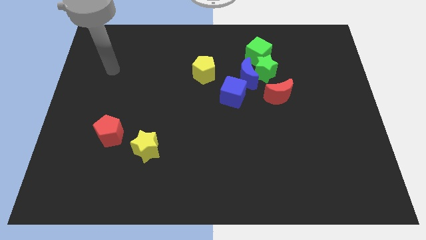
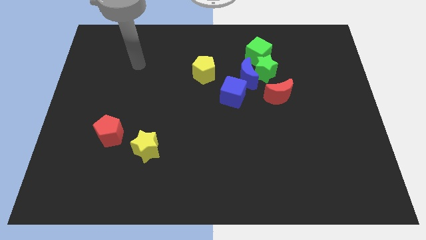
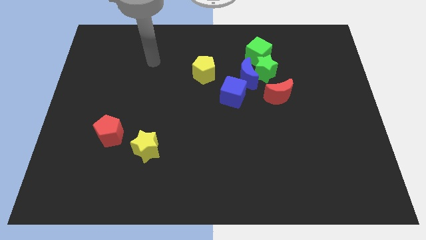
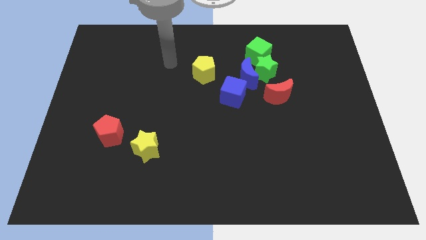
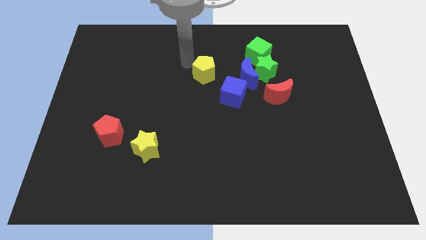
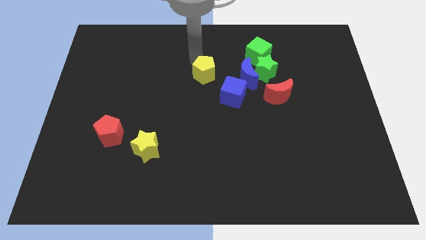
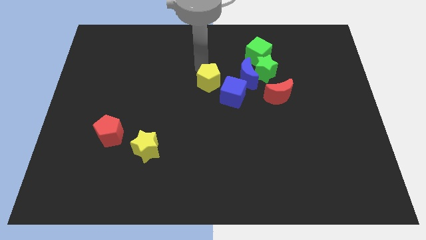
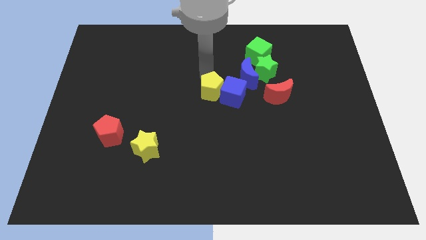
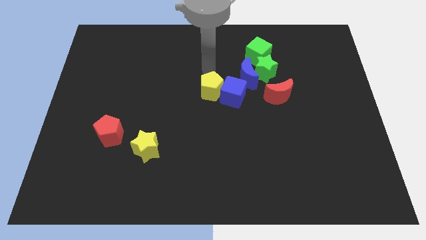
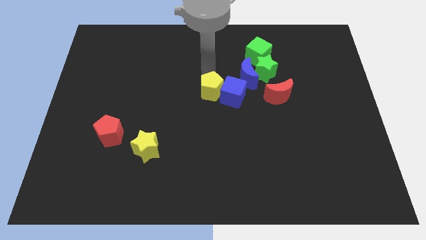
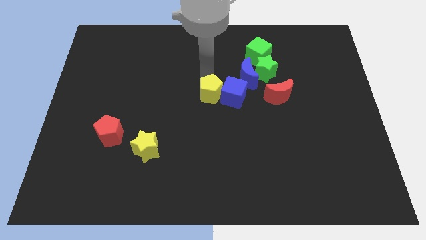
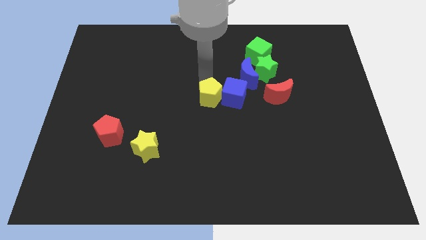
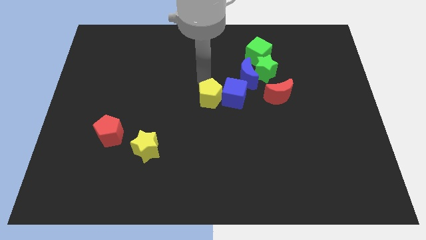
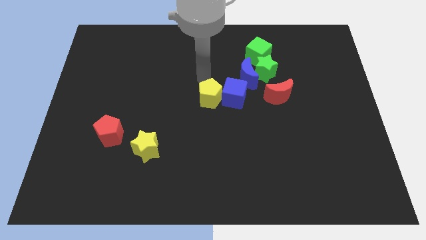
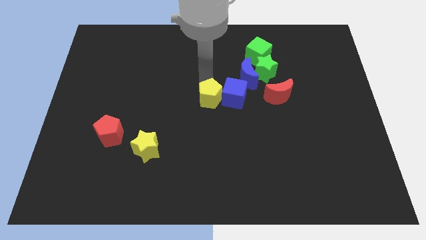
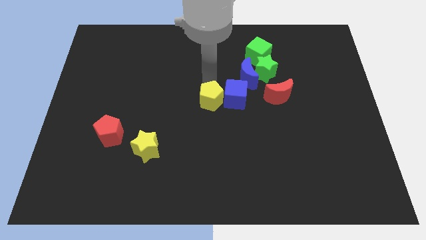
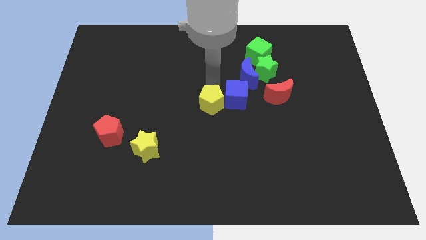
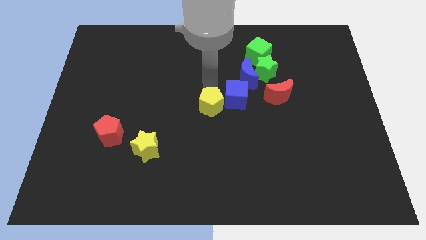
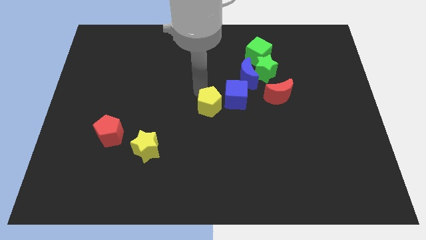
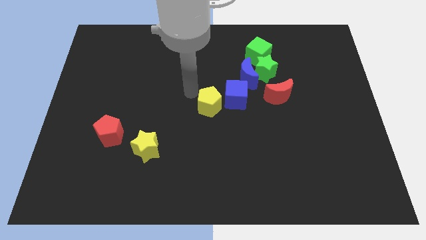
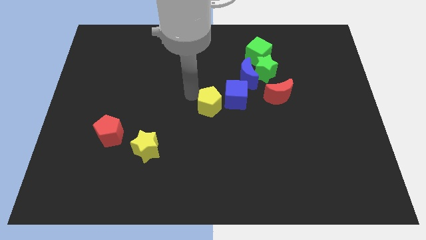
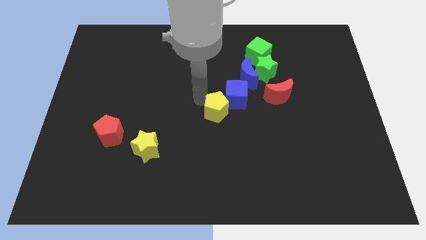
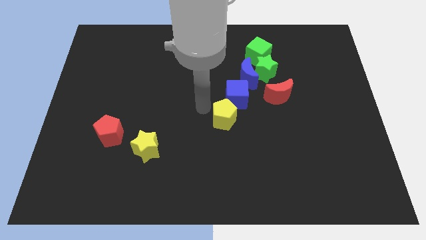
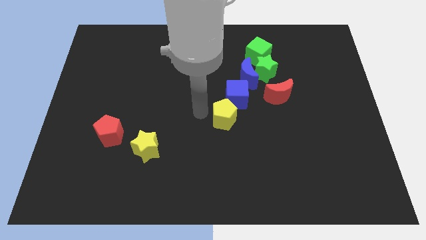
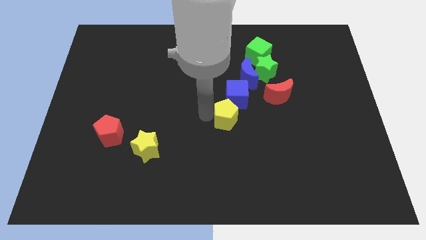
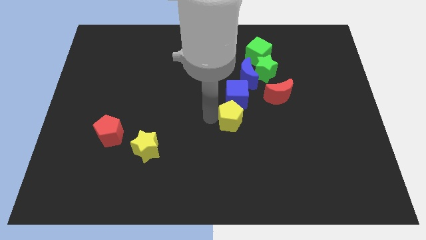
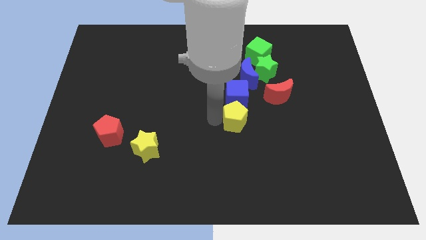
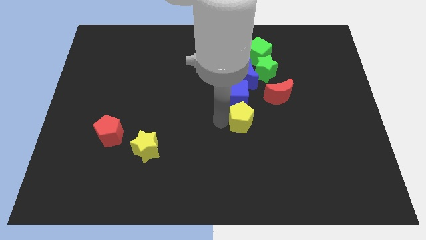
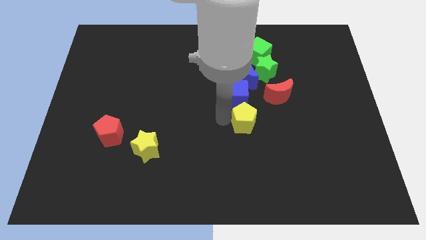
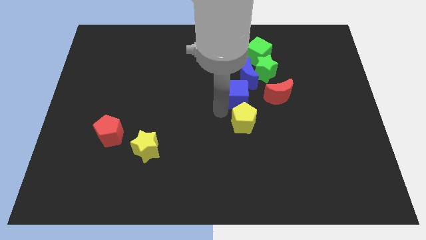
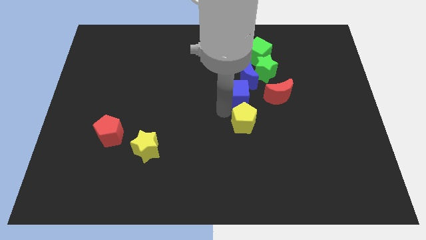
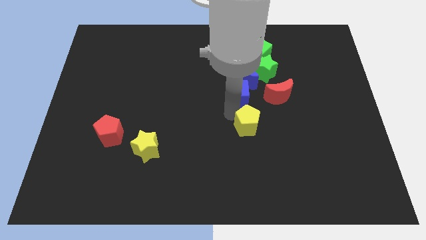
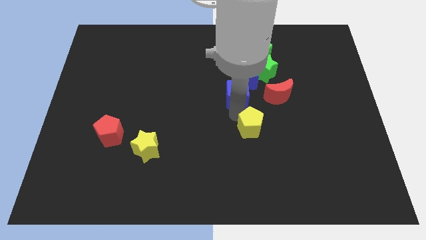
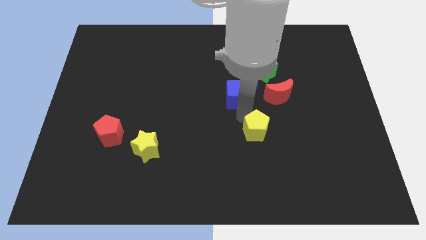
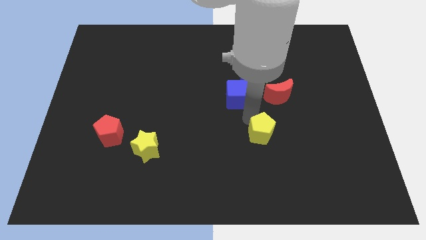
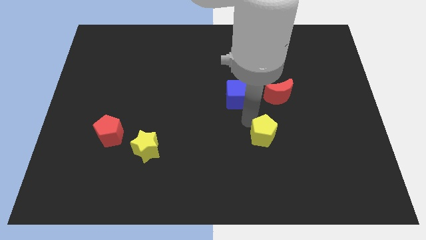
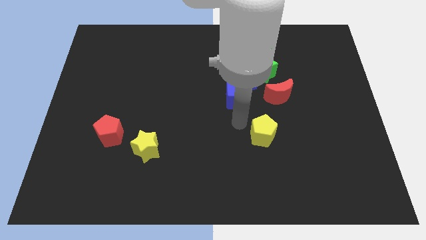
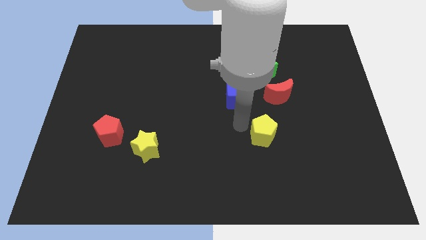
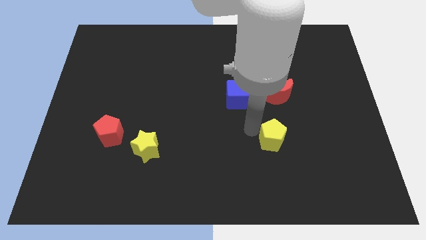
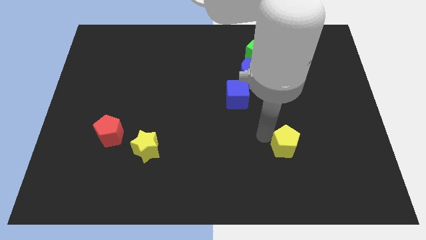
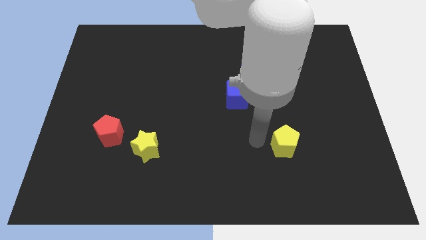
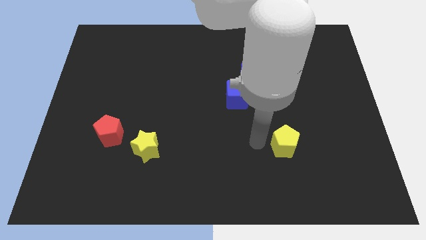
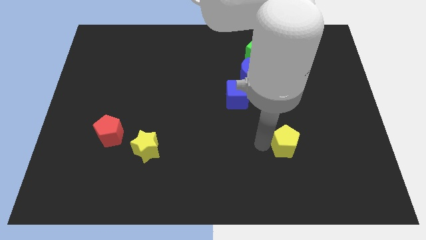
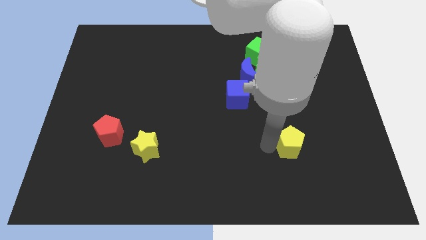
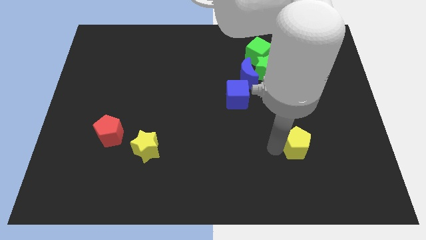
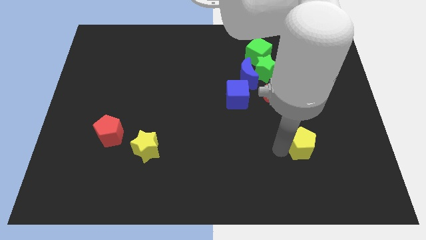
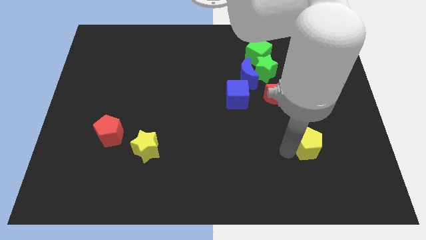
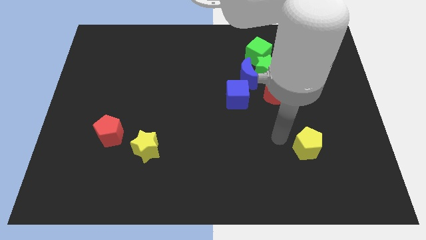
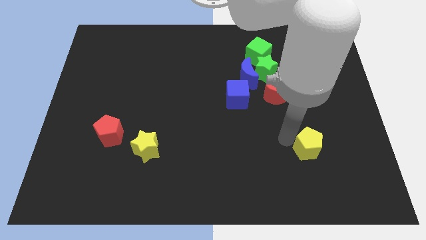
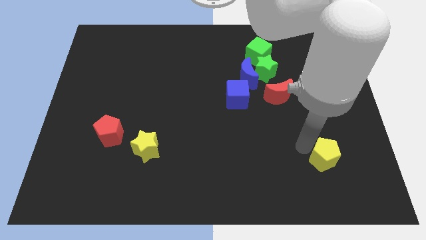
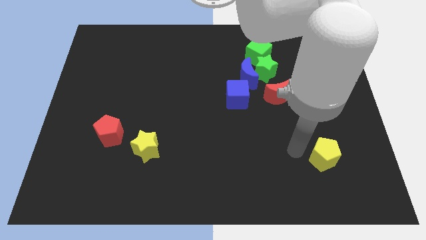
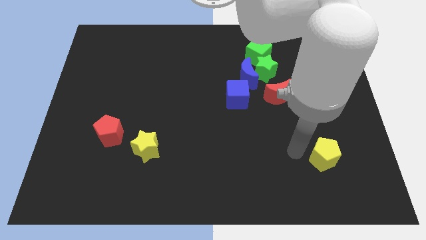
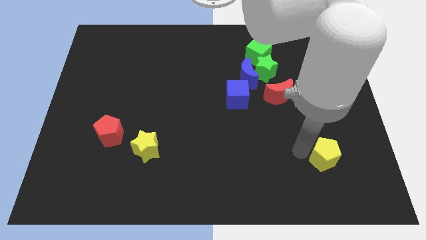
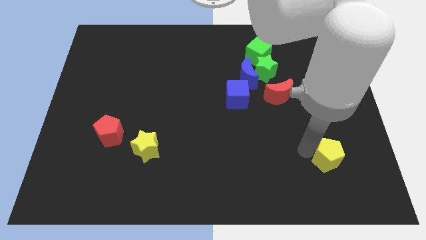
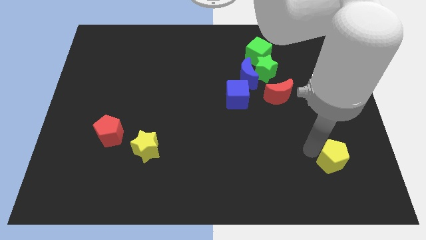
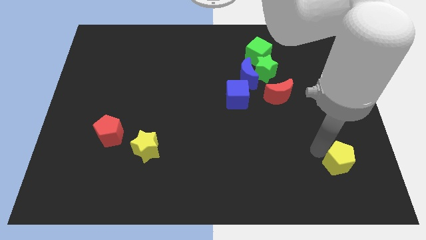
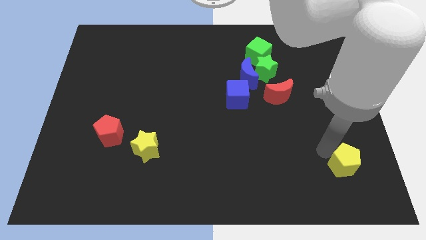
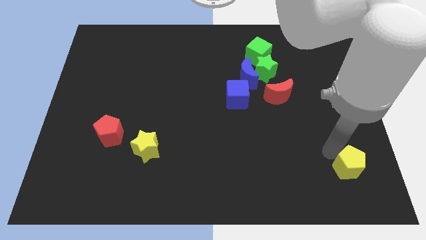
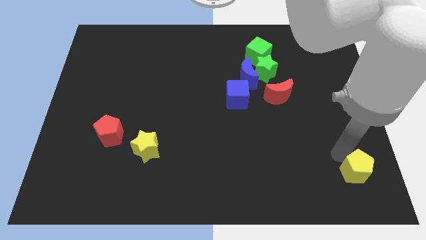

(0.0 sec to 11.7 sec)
slide the yellow pentagon to the bottom right of the board

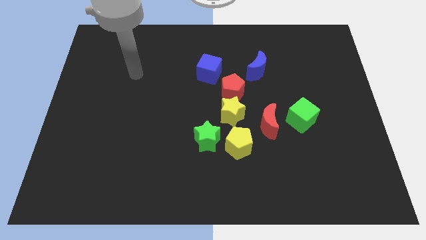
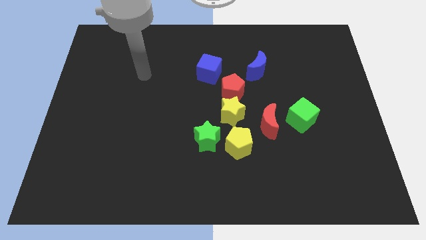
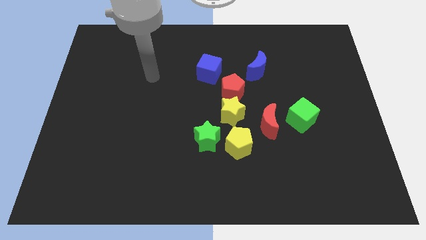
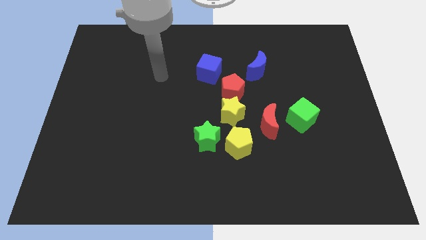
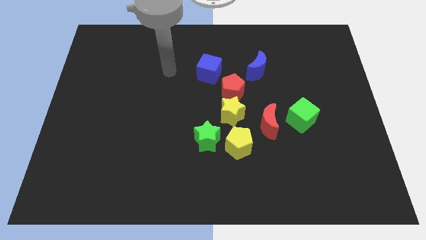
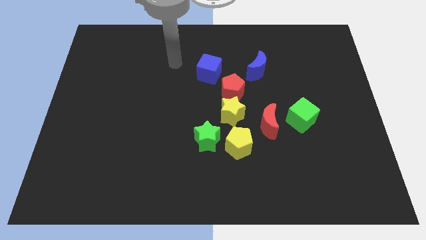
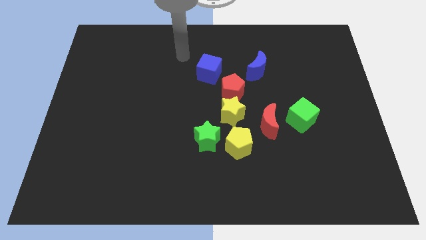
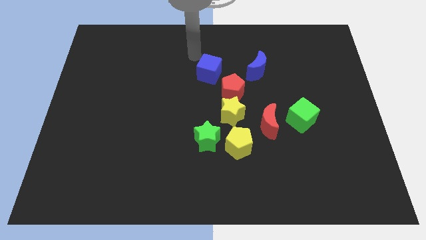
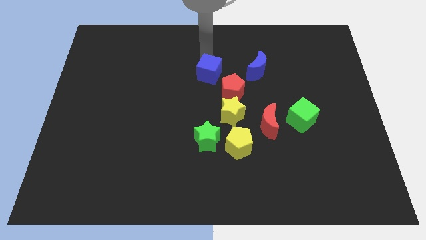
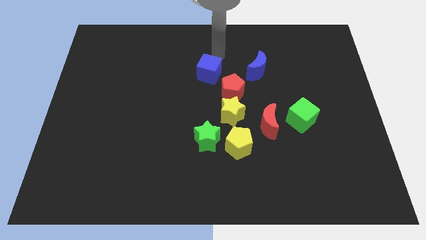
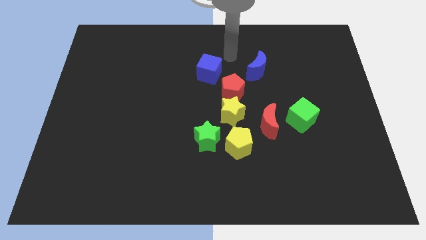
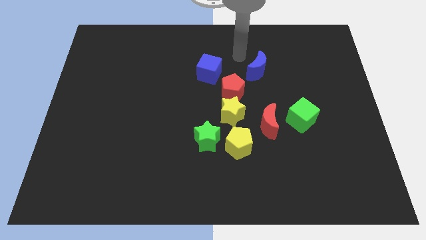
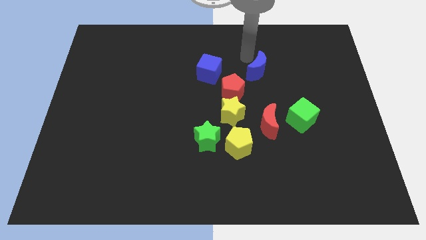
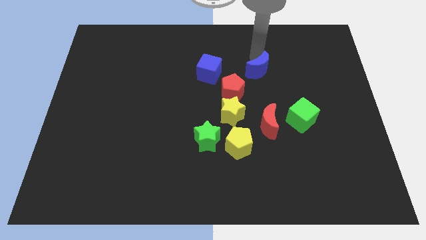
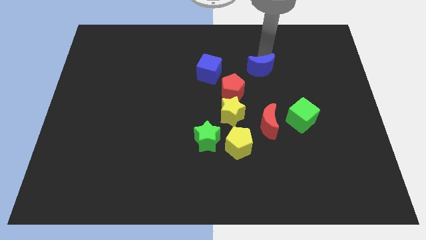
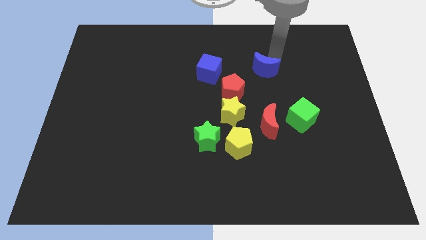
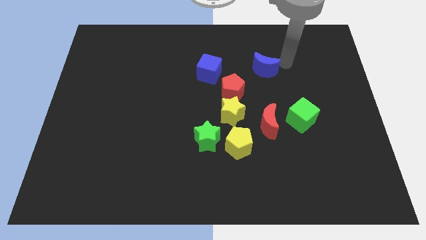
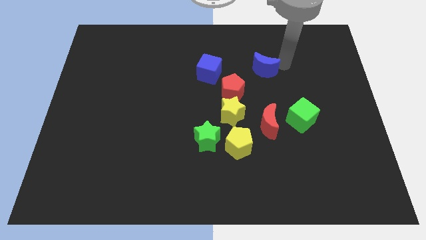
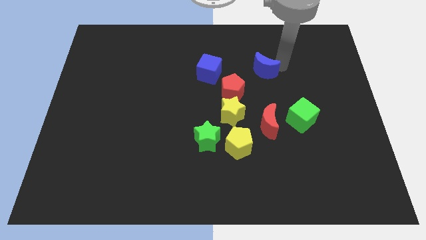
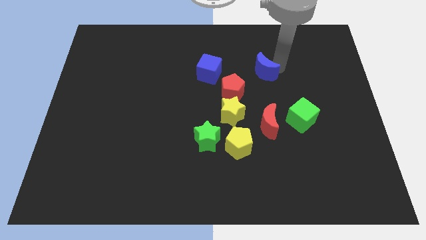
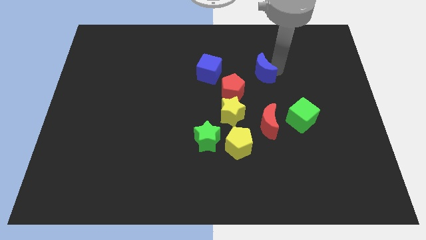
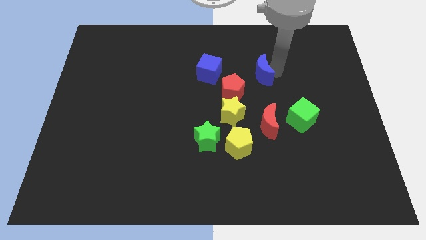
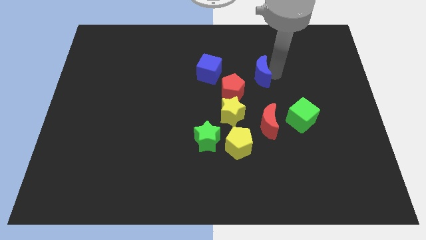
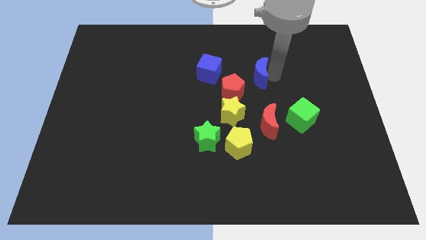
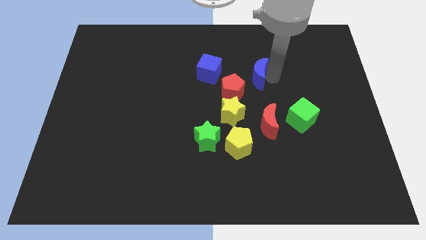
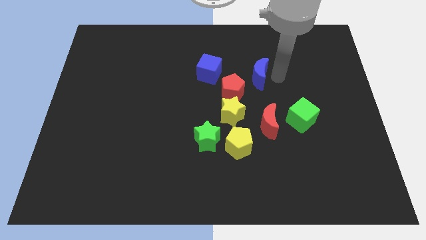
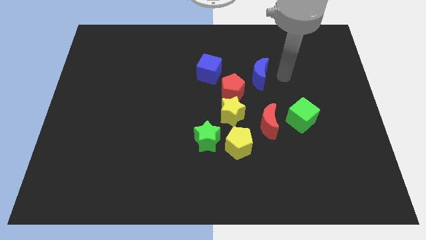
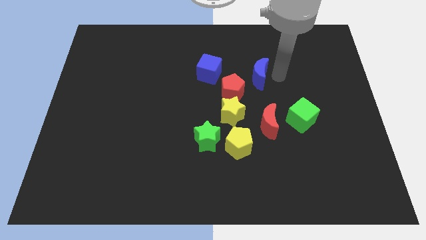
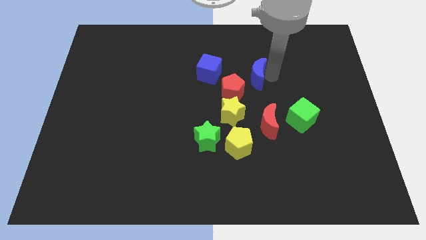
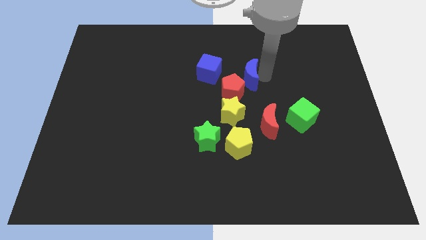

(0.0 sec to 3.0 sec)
push the blue moon to the middle of the board
